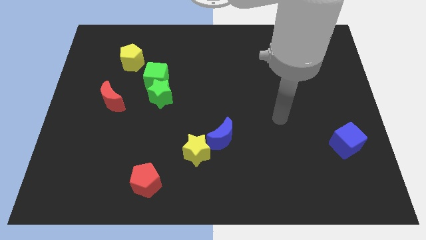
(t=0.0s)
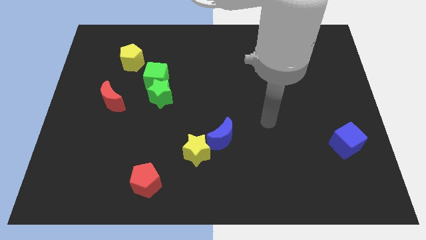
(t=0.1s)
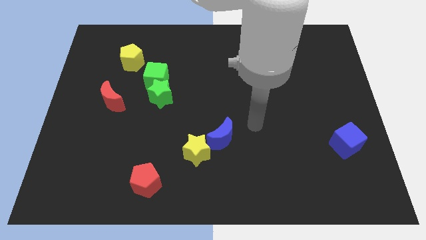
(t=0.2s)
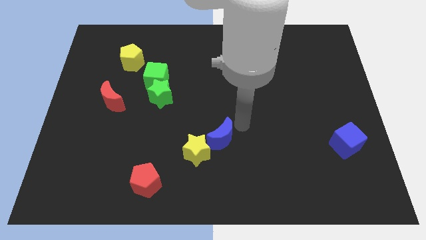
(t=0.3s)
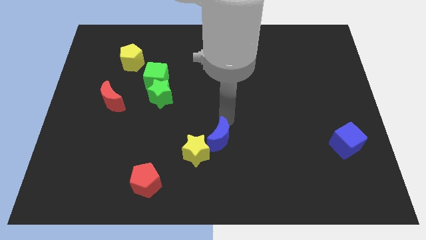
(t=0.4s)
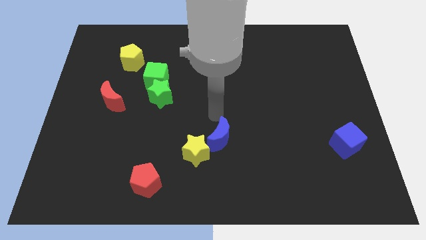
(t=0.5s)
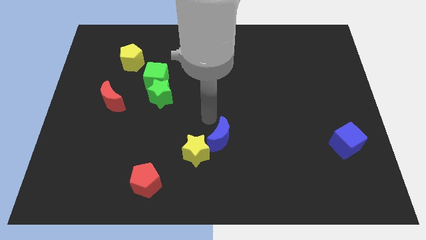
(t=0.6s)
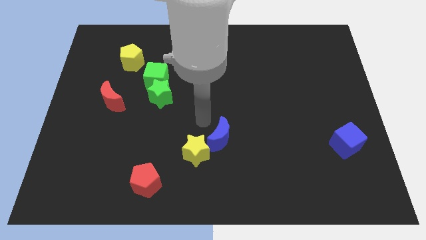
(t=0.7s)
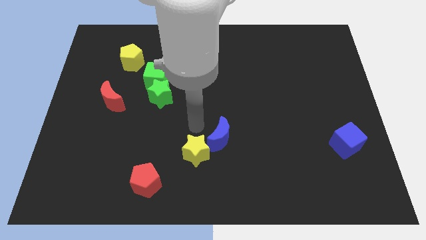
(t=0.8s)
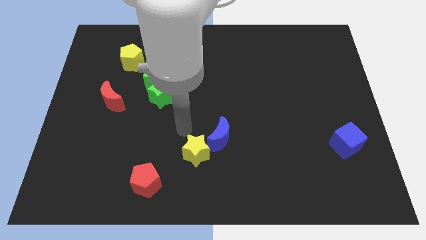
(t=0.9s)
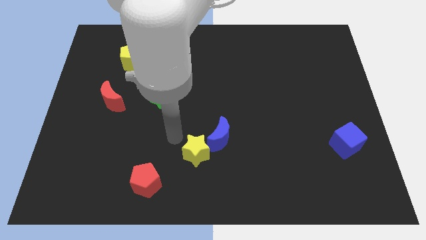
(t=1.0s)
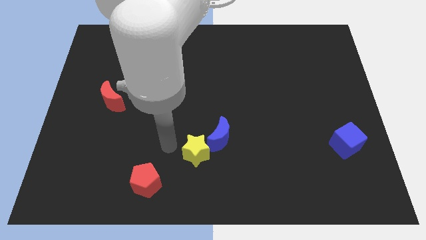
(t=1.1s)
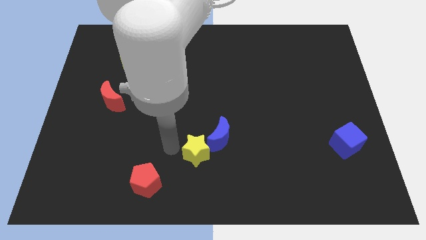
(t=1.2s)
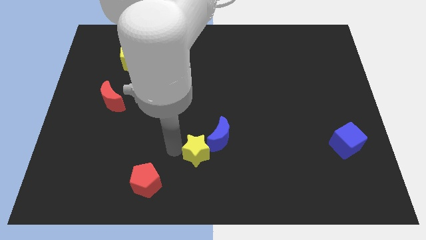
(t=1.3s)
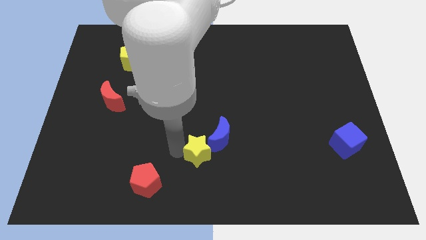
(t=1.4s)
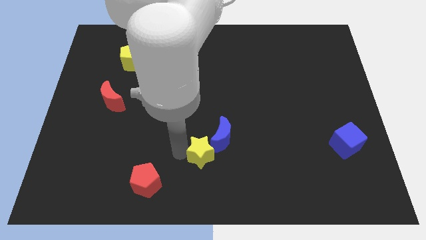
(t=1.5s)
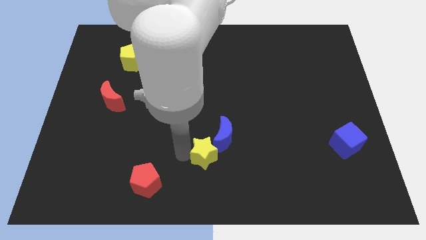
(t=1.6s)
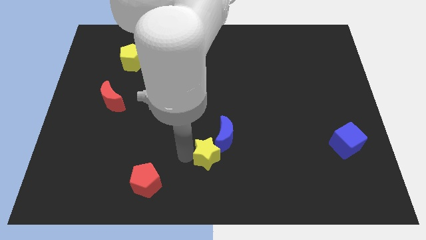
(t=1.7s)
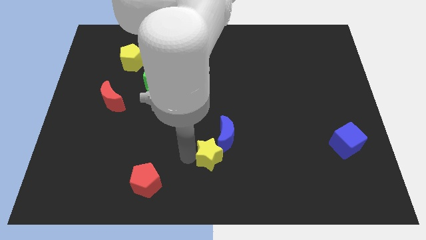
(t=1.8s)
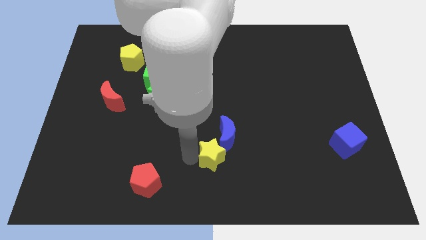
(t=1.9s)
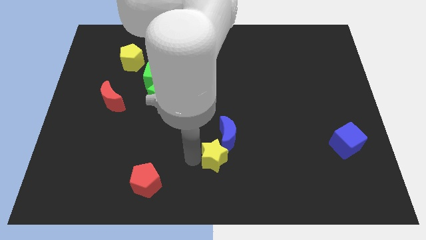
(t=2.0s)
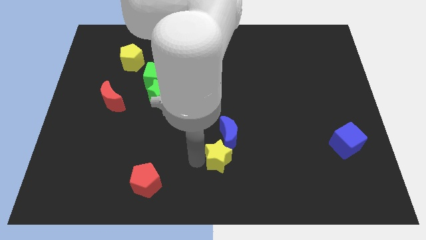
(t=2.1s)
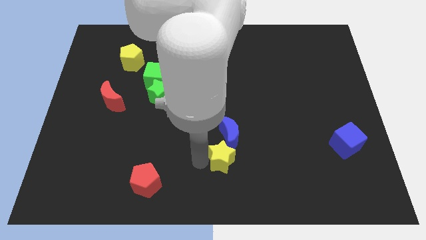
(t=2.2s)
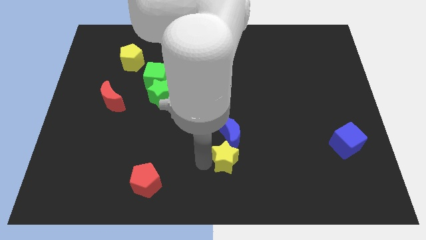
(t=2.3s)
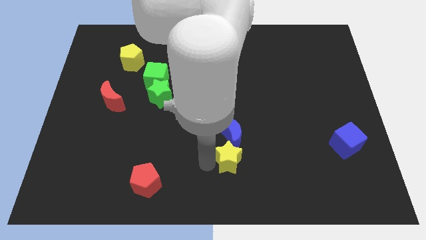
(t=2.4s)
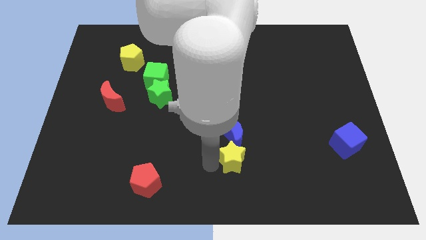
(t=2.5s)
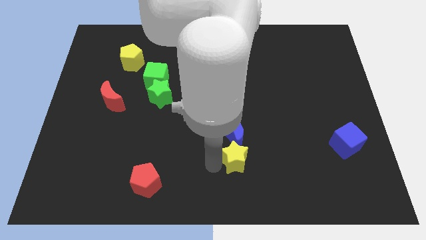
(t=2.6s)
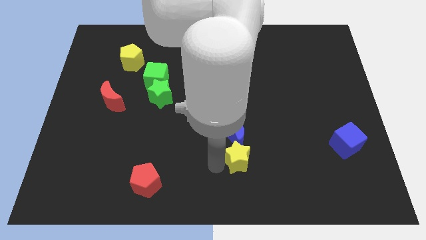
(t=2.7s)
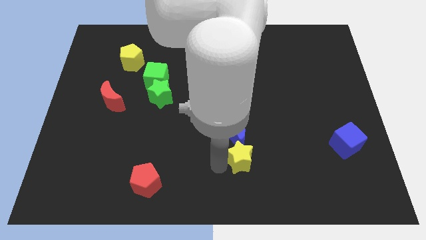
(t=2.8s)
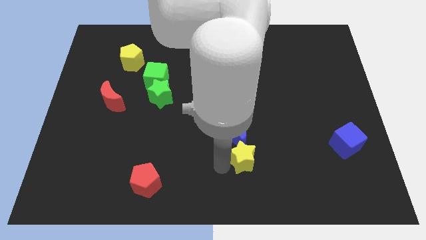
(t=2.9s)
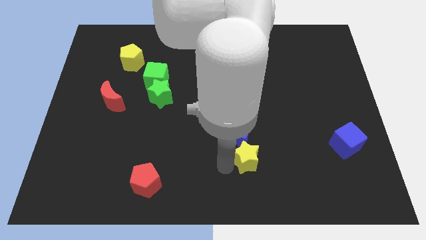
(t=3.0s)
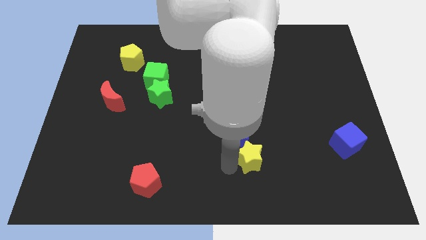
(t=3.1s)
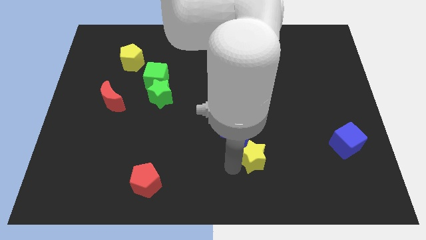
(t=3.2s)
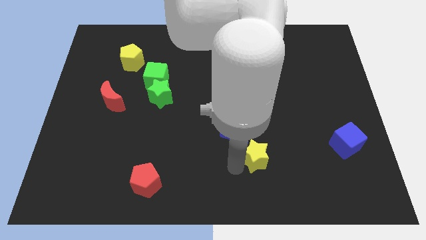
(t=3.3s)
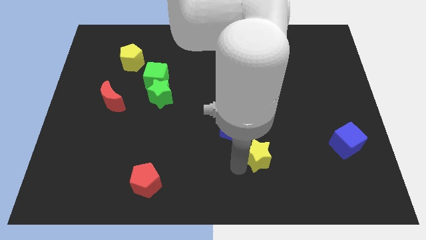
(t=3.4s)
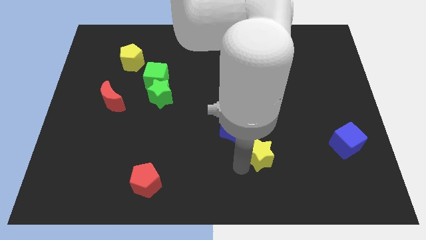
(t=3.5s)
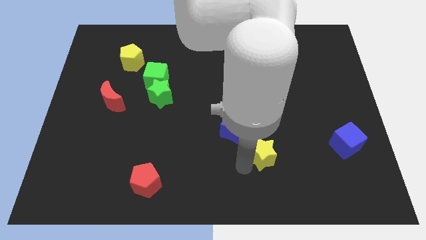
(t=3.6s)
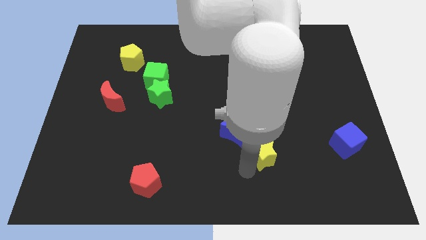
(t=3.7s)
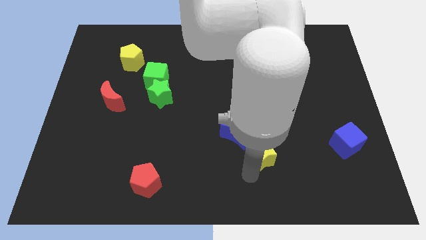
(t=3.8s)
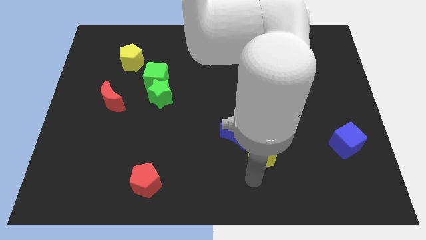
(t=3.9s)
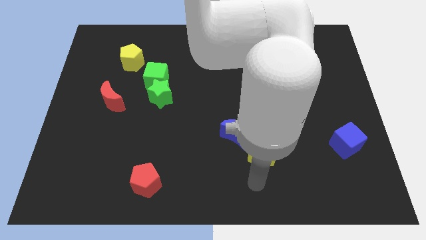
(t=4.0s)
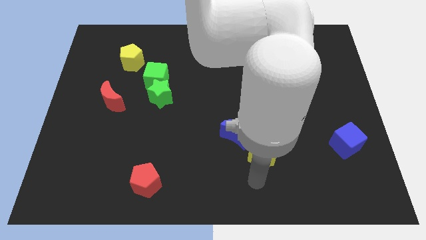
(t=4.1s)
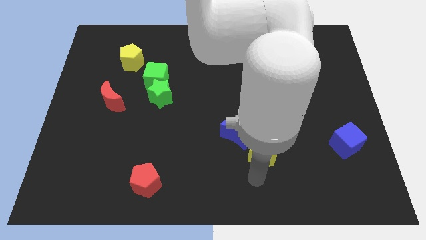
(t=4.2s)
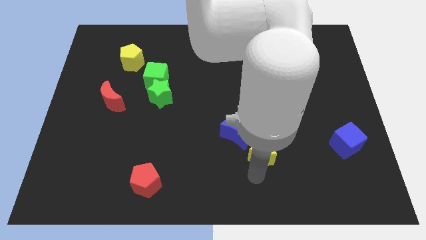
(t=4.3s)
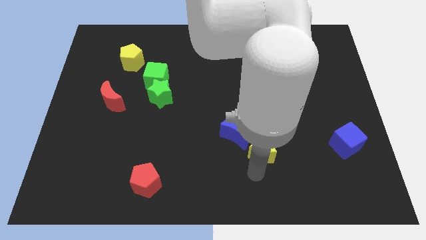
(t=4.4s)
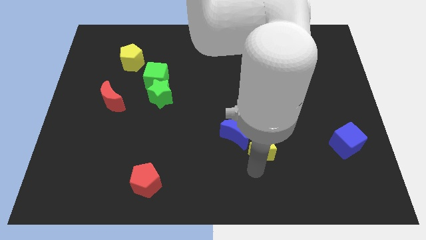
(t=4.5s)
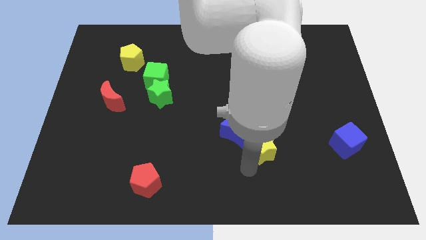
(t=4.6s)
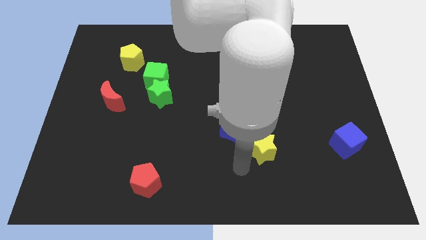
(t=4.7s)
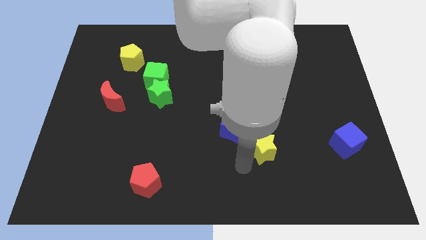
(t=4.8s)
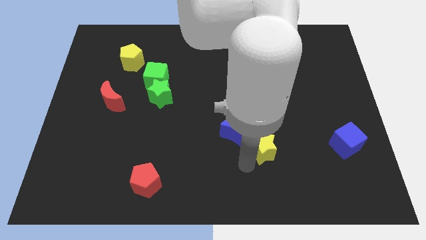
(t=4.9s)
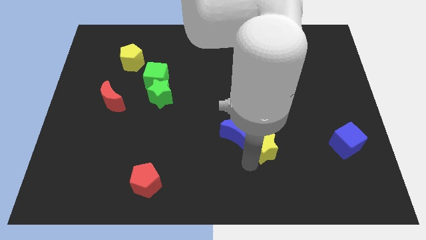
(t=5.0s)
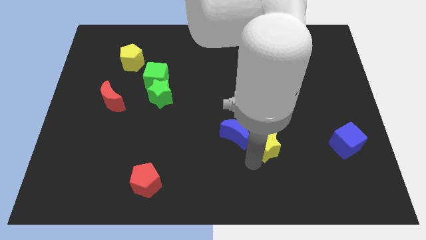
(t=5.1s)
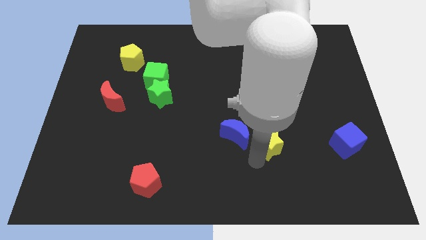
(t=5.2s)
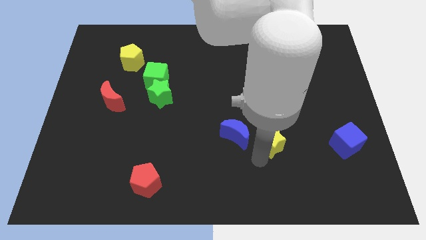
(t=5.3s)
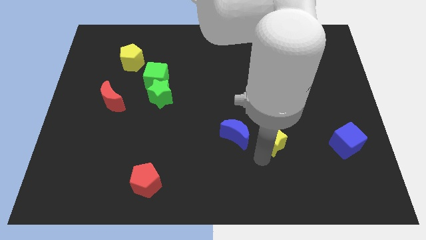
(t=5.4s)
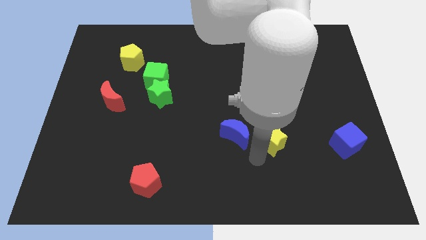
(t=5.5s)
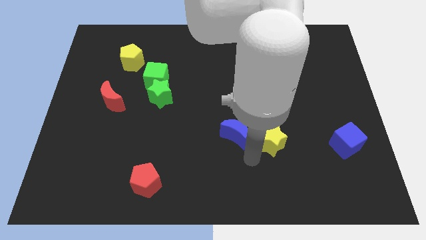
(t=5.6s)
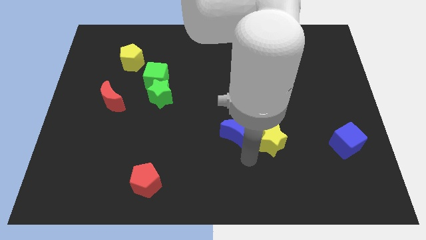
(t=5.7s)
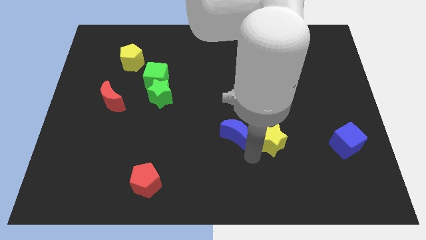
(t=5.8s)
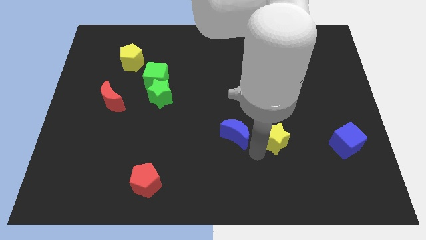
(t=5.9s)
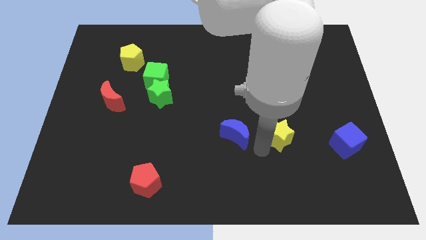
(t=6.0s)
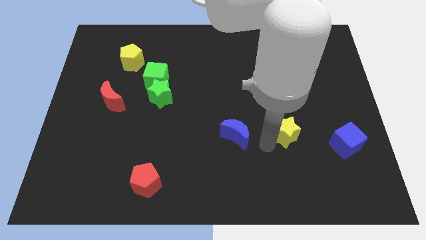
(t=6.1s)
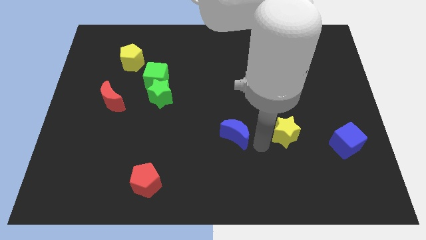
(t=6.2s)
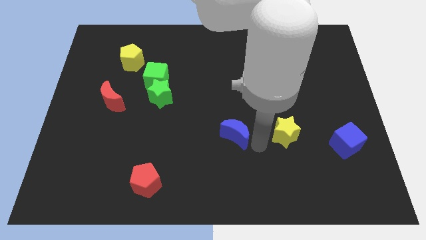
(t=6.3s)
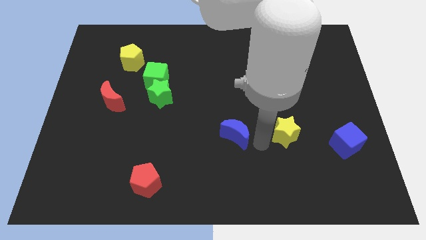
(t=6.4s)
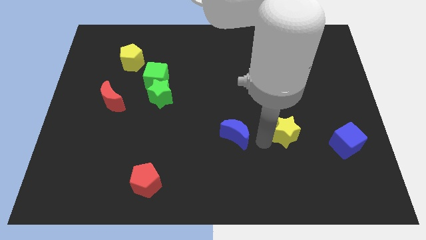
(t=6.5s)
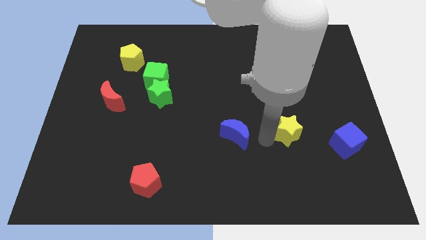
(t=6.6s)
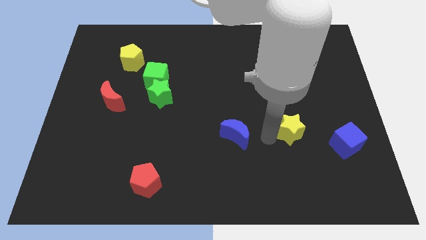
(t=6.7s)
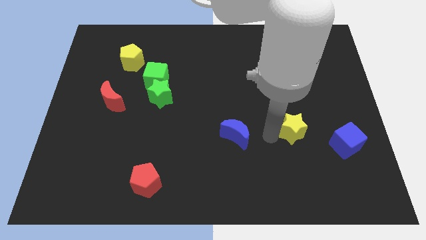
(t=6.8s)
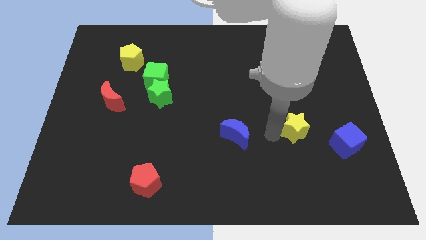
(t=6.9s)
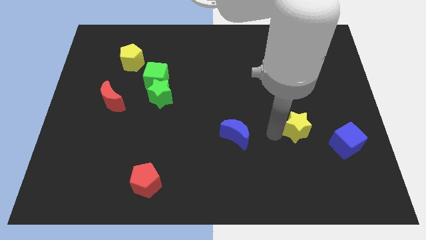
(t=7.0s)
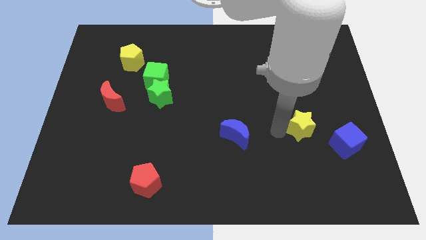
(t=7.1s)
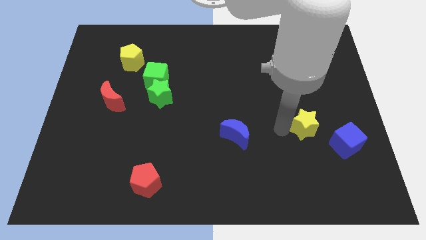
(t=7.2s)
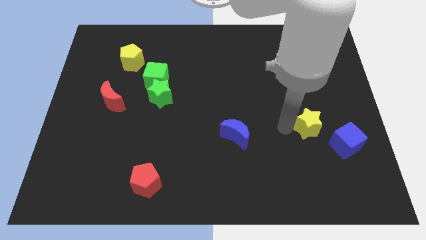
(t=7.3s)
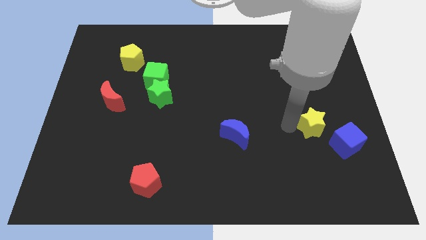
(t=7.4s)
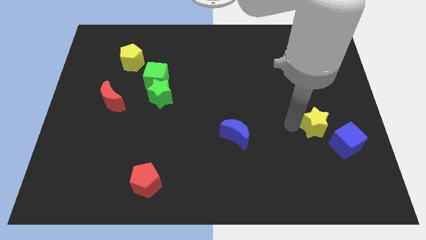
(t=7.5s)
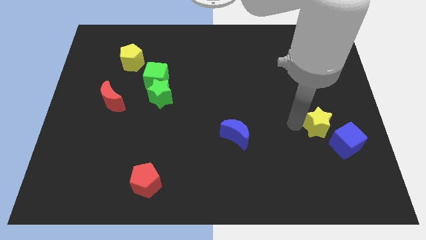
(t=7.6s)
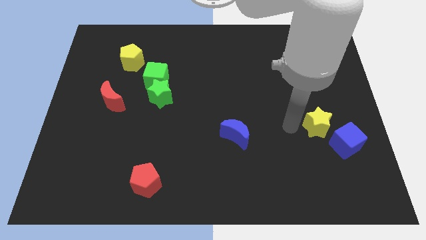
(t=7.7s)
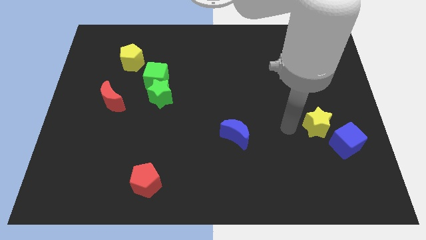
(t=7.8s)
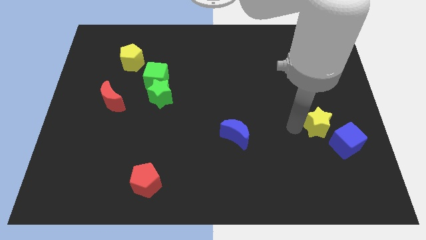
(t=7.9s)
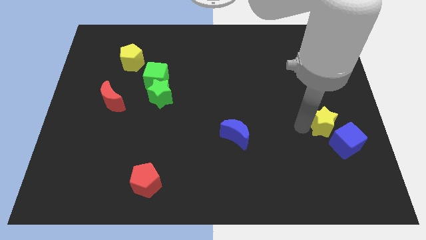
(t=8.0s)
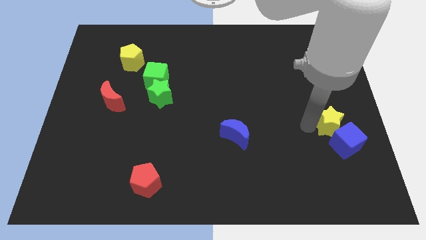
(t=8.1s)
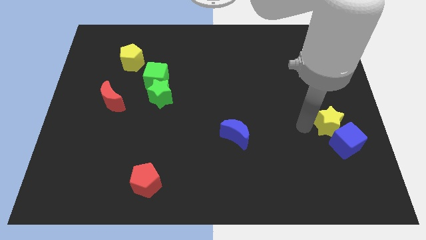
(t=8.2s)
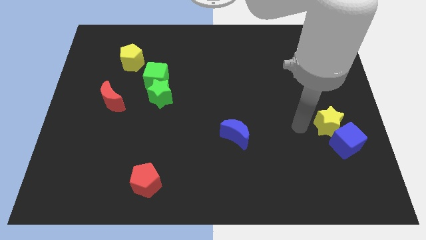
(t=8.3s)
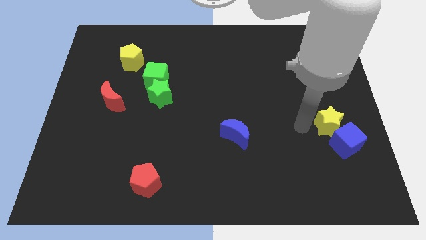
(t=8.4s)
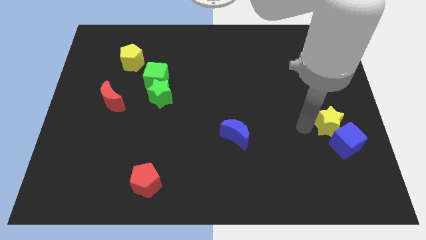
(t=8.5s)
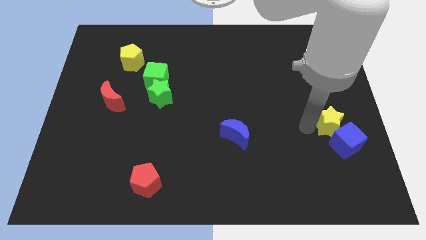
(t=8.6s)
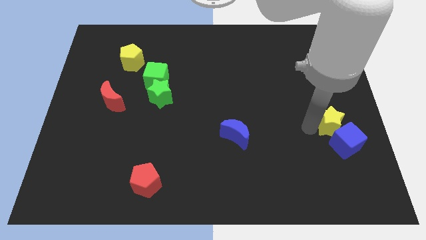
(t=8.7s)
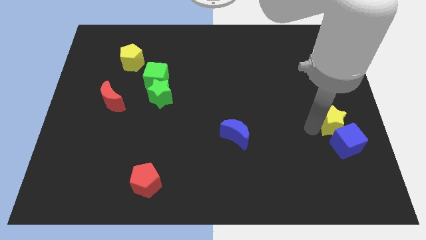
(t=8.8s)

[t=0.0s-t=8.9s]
push the yellow star to the center right
